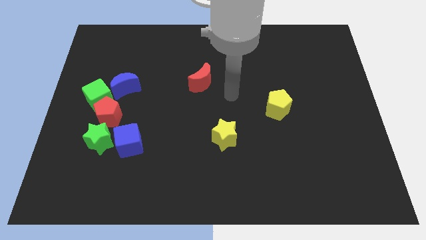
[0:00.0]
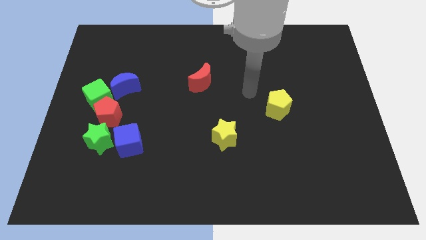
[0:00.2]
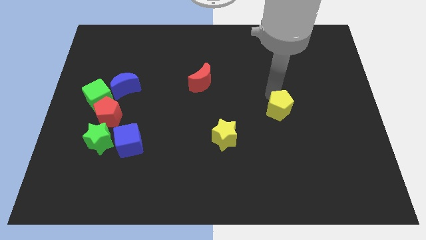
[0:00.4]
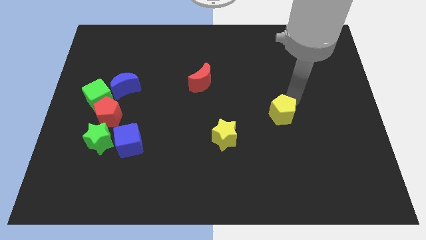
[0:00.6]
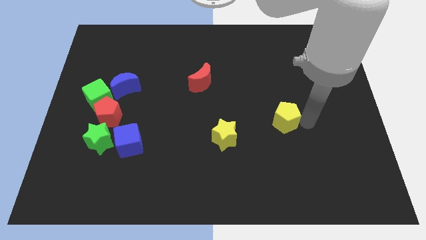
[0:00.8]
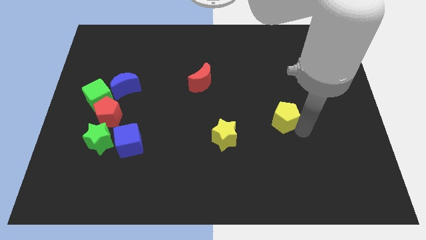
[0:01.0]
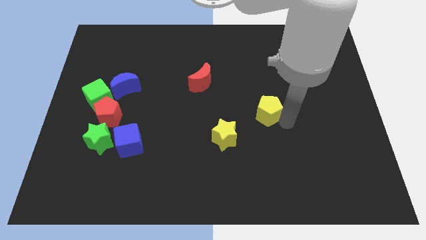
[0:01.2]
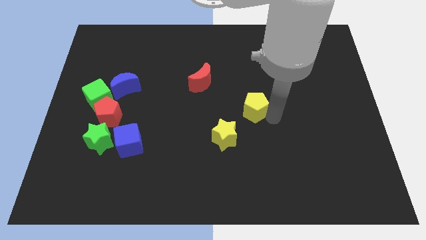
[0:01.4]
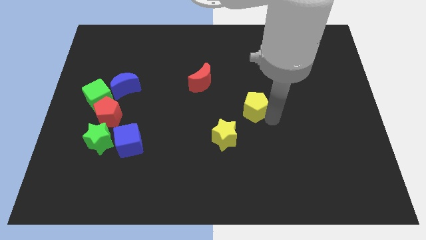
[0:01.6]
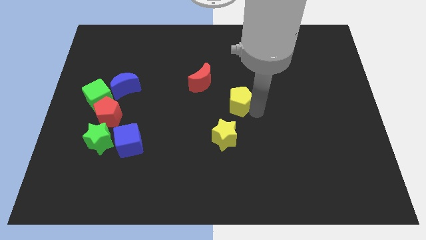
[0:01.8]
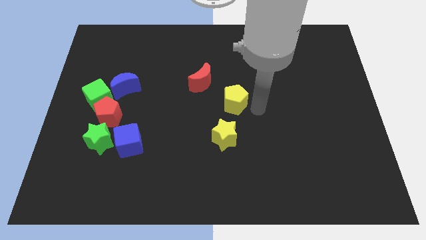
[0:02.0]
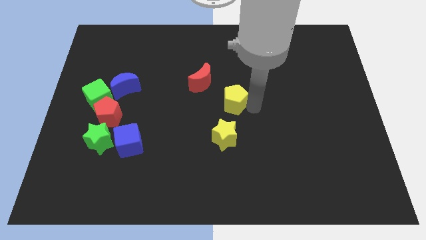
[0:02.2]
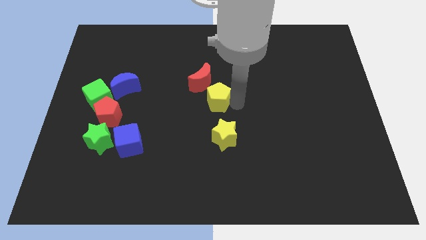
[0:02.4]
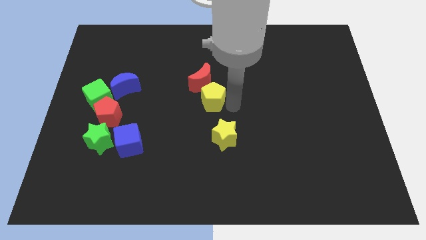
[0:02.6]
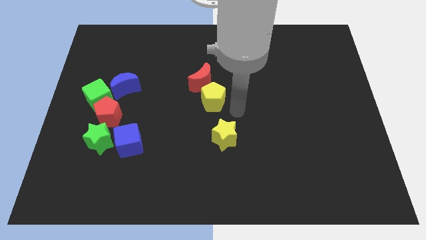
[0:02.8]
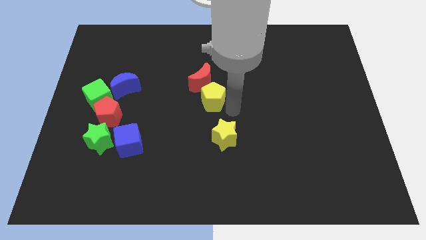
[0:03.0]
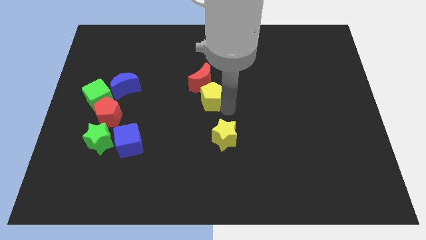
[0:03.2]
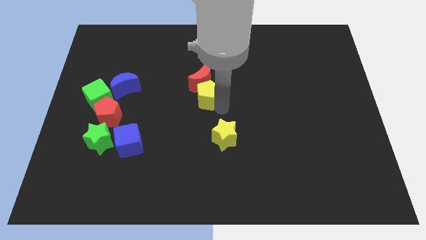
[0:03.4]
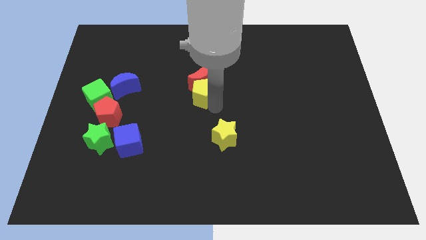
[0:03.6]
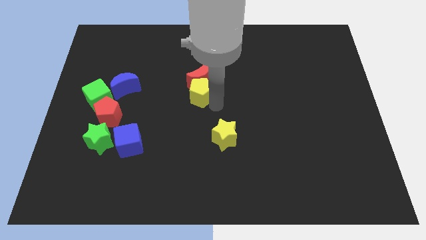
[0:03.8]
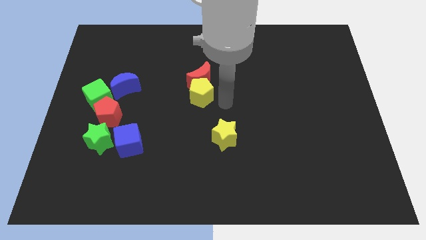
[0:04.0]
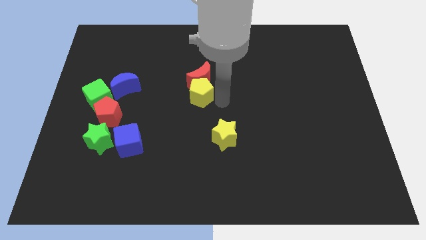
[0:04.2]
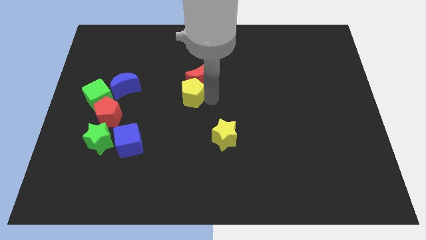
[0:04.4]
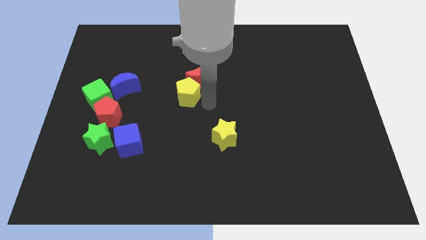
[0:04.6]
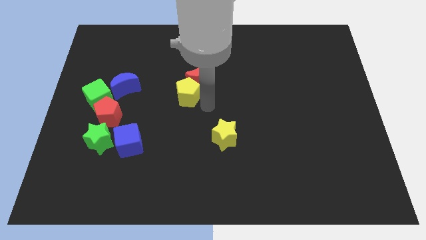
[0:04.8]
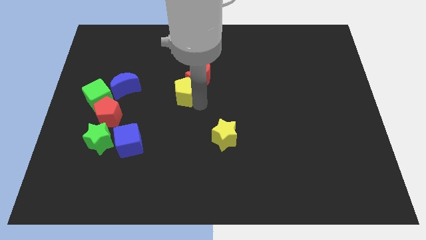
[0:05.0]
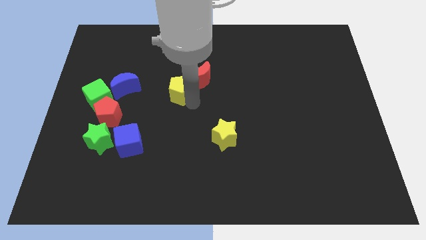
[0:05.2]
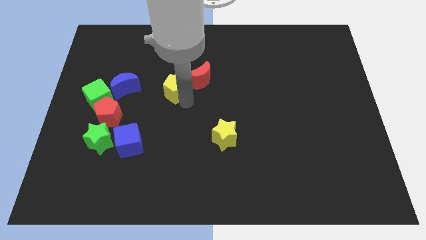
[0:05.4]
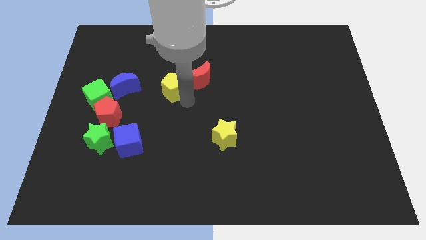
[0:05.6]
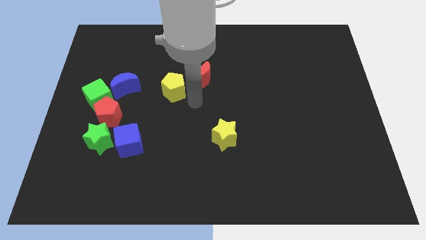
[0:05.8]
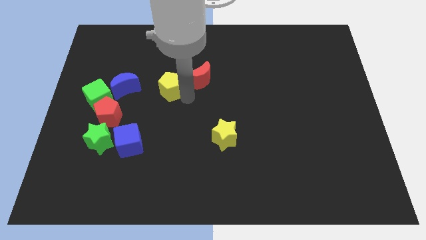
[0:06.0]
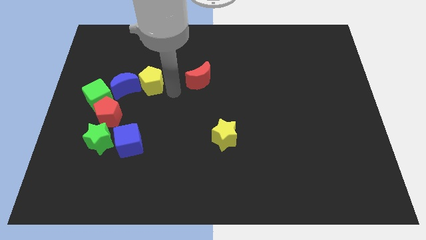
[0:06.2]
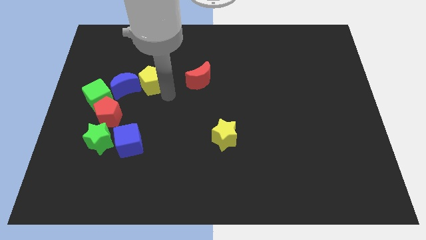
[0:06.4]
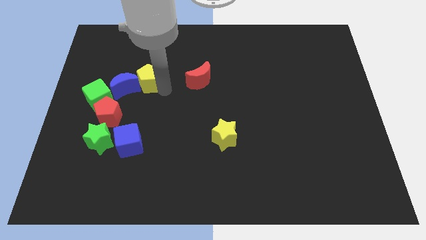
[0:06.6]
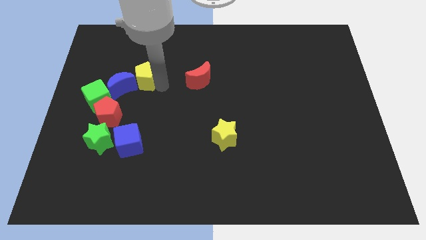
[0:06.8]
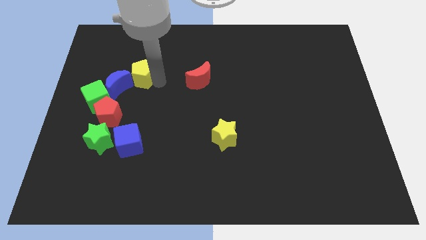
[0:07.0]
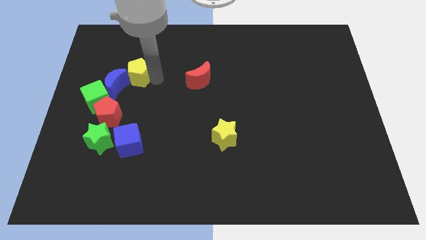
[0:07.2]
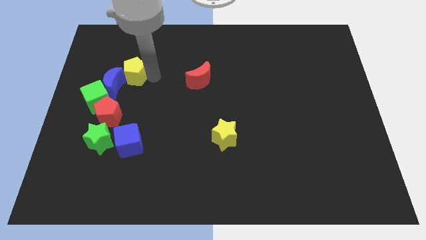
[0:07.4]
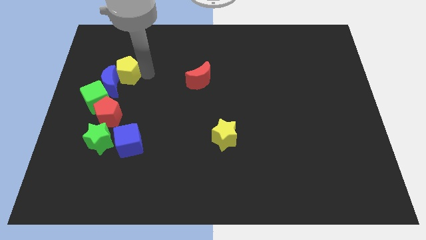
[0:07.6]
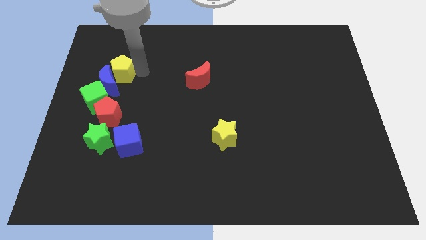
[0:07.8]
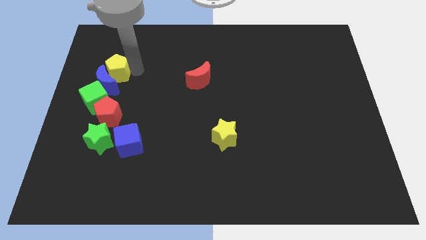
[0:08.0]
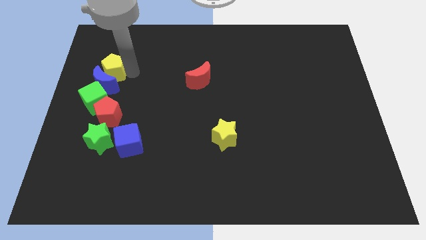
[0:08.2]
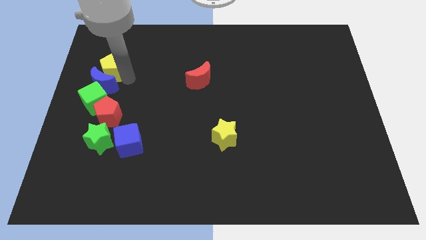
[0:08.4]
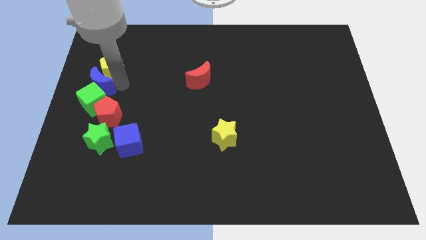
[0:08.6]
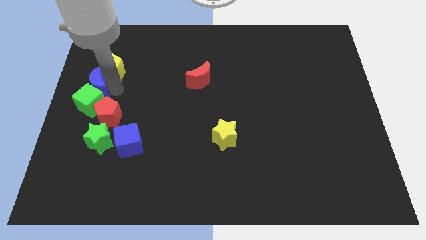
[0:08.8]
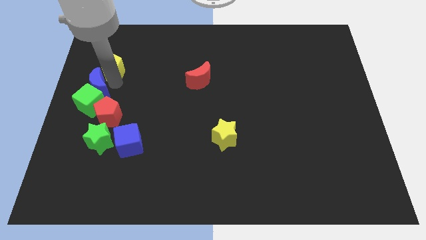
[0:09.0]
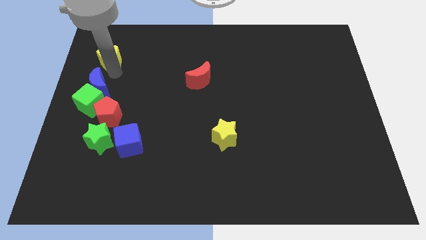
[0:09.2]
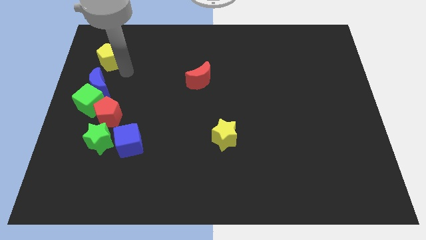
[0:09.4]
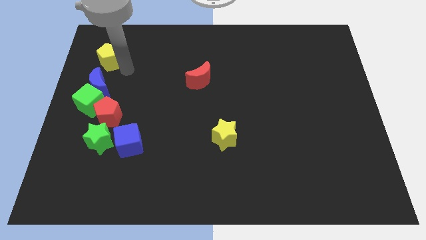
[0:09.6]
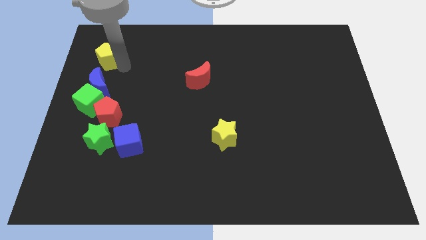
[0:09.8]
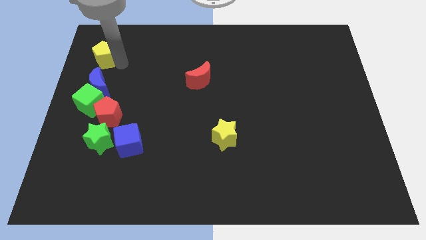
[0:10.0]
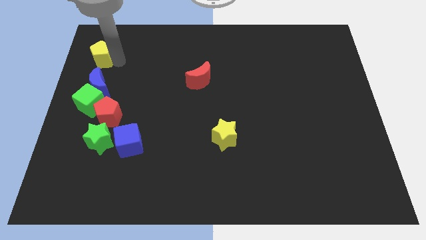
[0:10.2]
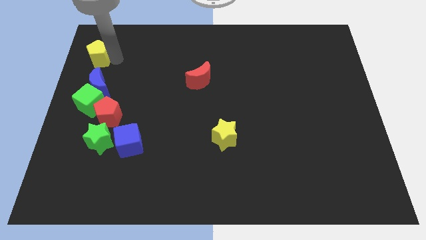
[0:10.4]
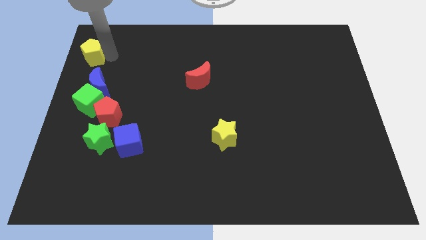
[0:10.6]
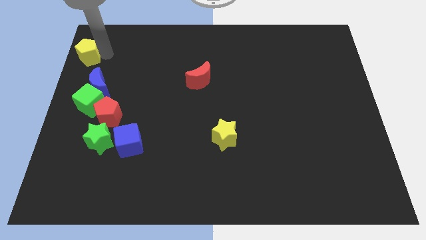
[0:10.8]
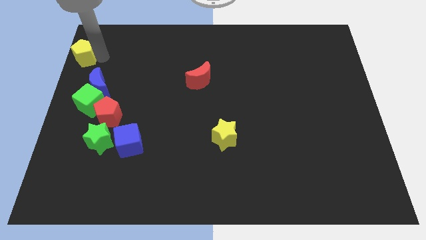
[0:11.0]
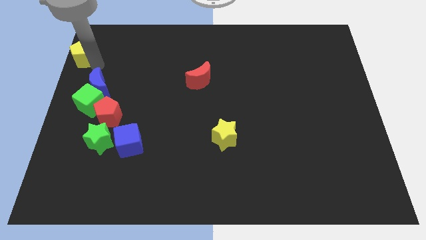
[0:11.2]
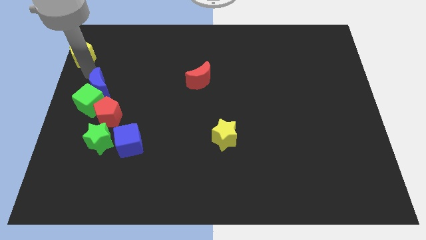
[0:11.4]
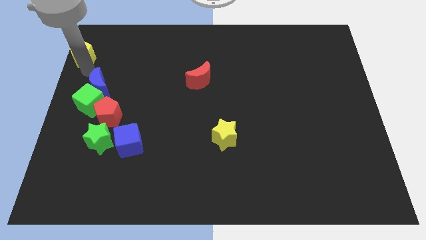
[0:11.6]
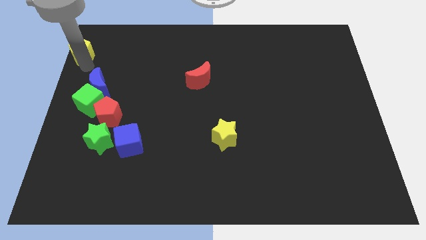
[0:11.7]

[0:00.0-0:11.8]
slide the yellow pentagon to the top left

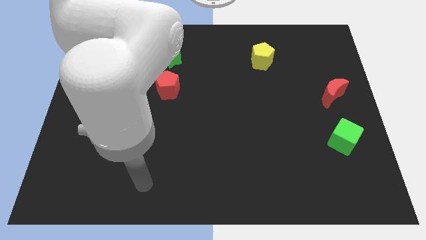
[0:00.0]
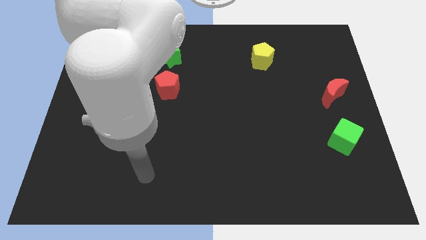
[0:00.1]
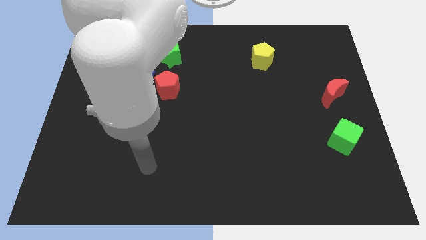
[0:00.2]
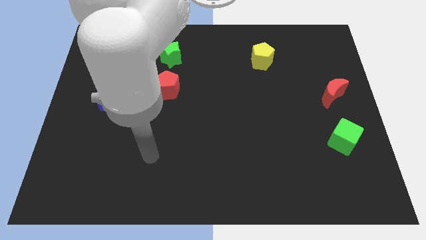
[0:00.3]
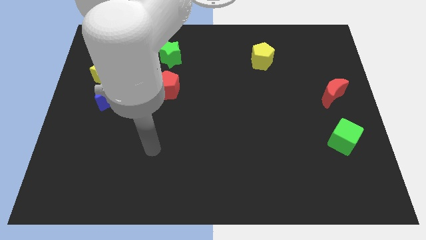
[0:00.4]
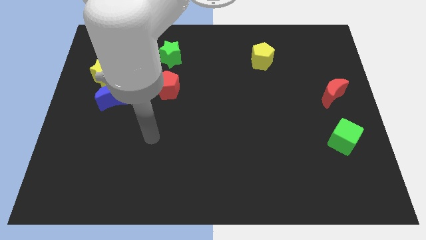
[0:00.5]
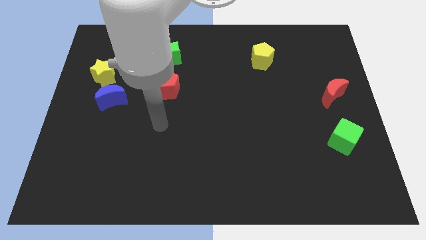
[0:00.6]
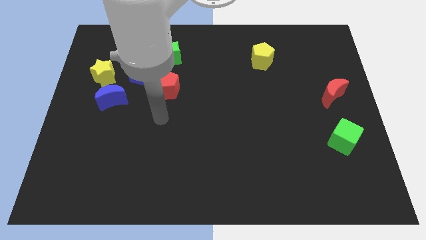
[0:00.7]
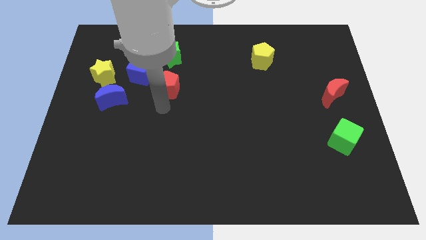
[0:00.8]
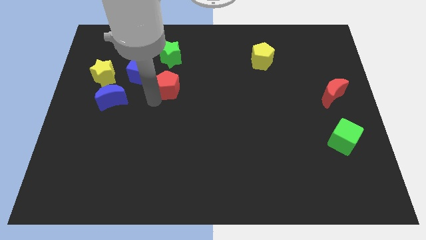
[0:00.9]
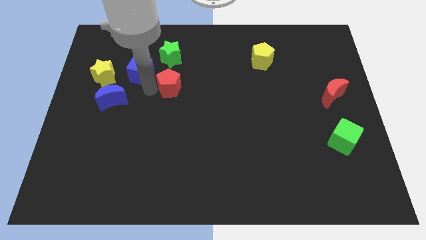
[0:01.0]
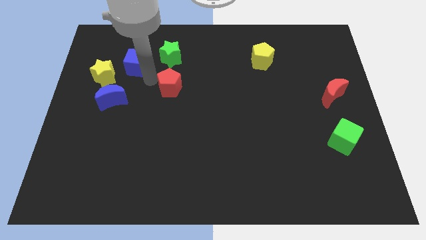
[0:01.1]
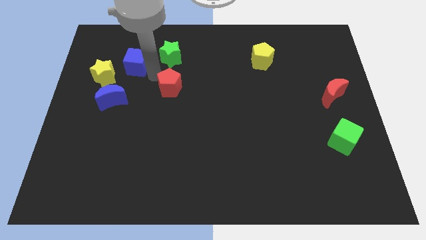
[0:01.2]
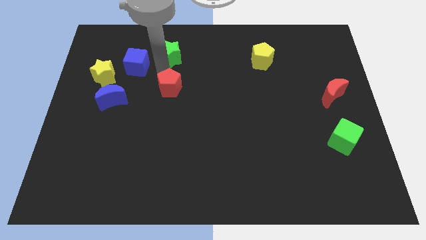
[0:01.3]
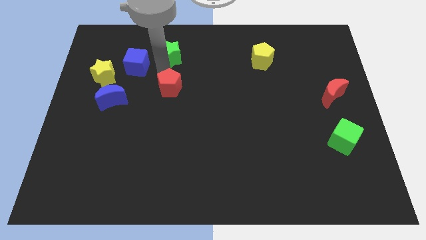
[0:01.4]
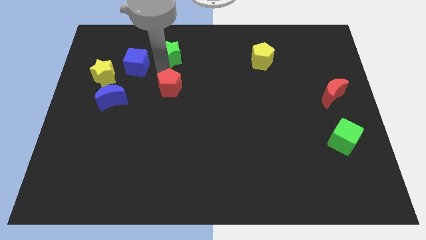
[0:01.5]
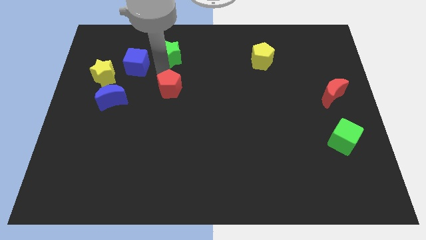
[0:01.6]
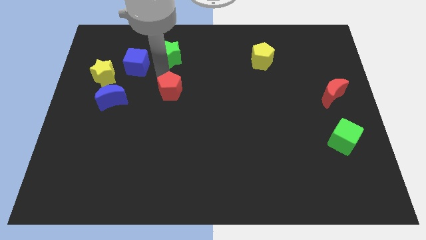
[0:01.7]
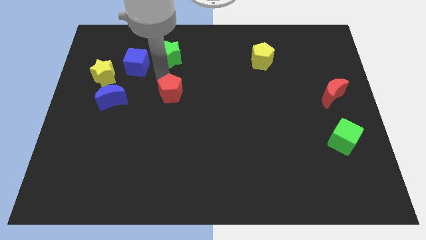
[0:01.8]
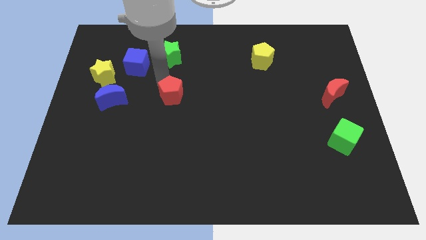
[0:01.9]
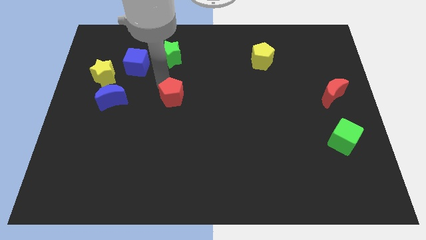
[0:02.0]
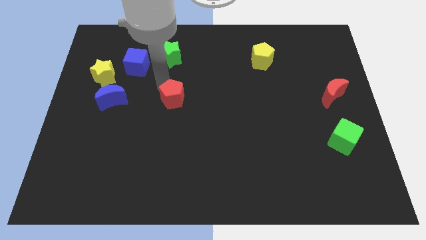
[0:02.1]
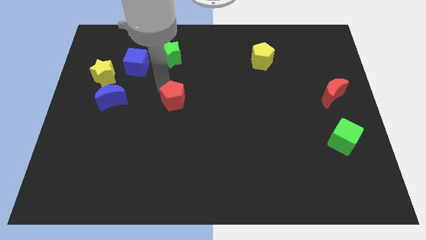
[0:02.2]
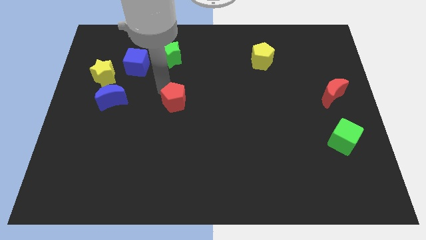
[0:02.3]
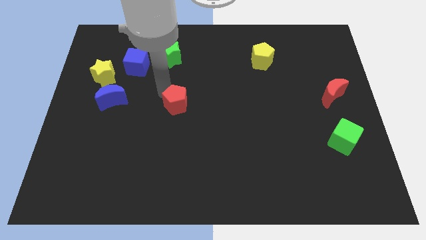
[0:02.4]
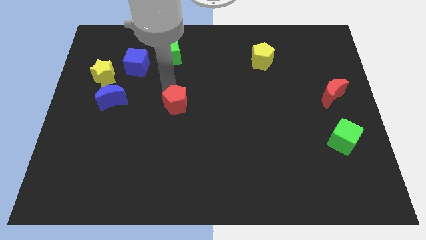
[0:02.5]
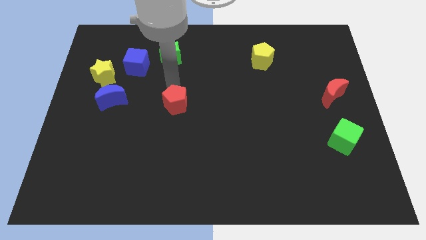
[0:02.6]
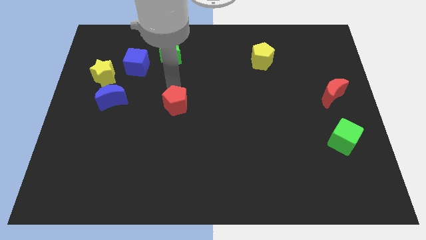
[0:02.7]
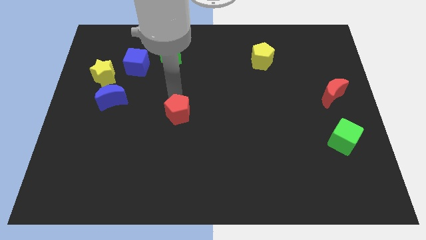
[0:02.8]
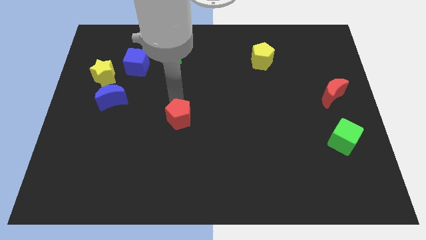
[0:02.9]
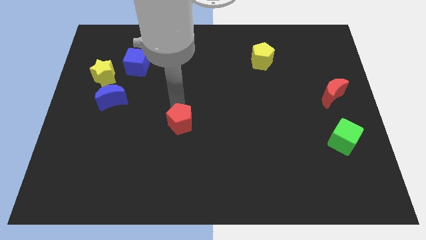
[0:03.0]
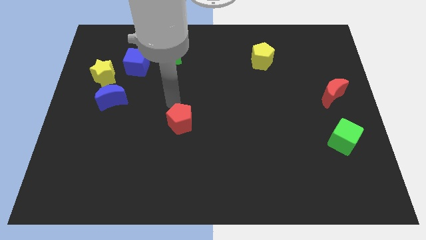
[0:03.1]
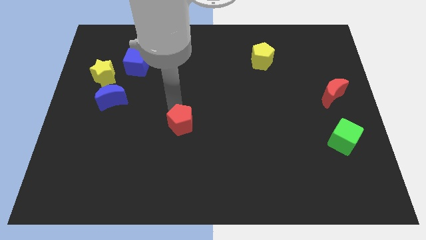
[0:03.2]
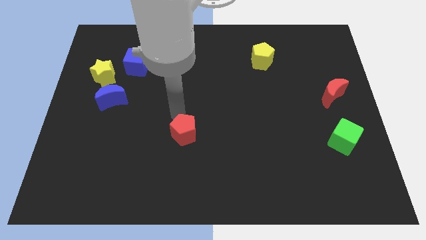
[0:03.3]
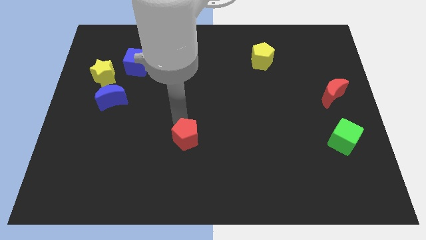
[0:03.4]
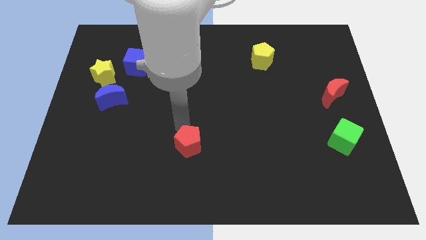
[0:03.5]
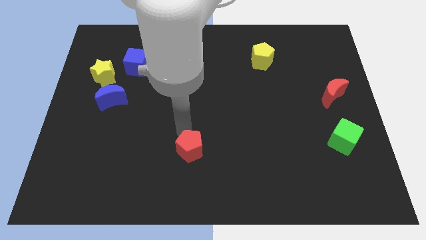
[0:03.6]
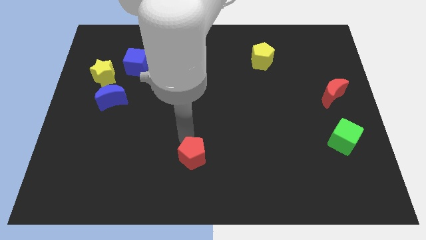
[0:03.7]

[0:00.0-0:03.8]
push the red pentagon to the bottom
